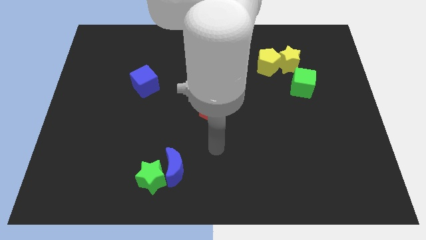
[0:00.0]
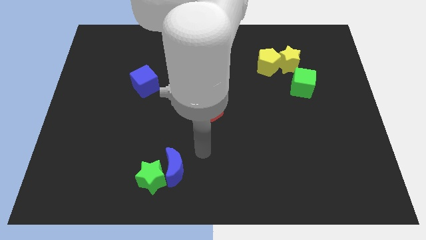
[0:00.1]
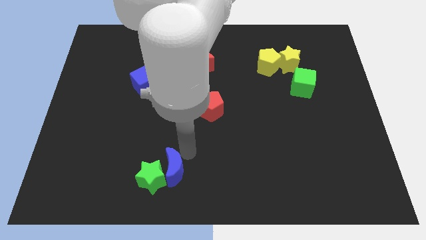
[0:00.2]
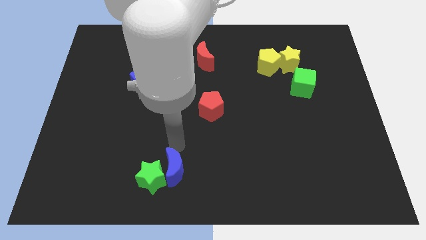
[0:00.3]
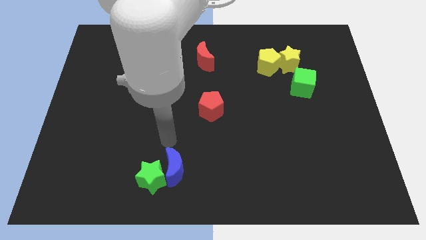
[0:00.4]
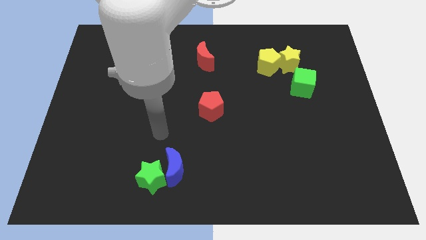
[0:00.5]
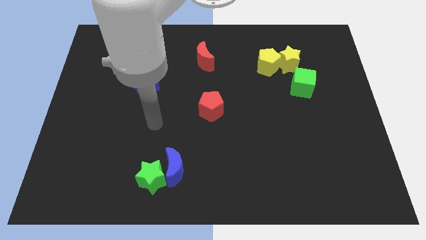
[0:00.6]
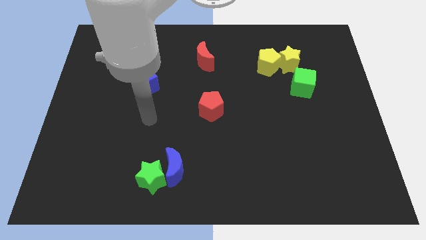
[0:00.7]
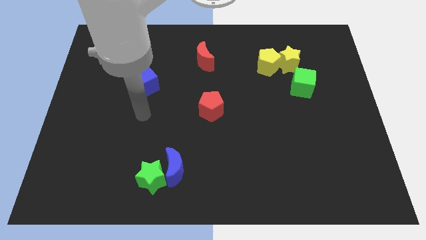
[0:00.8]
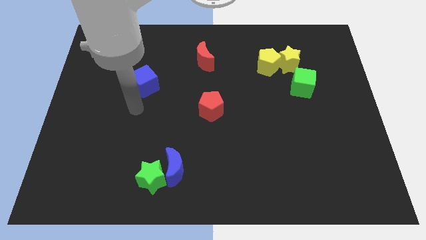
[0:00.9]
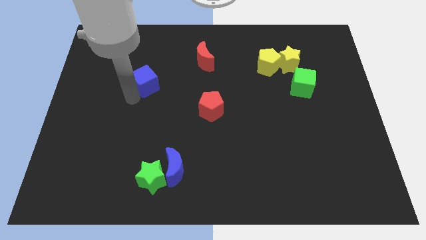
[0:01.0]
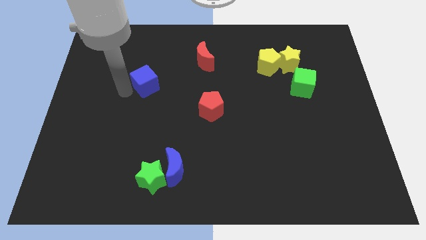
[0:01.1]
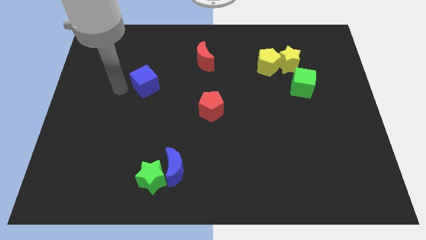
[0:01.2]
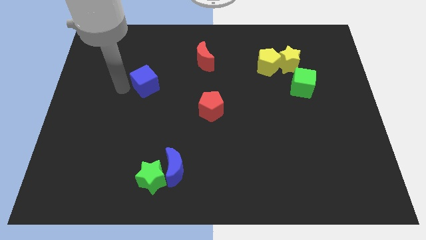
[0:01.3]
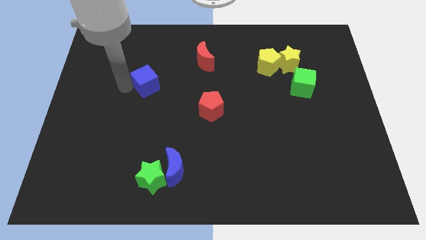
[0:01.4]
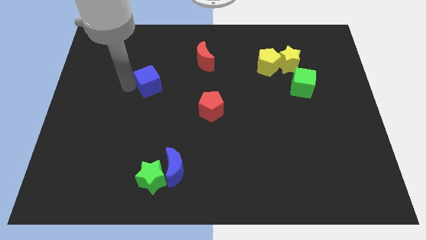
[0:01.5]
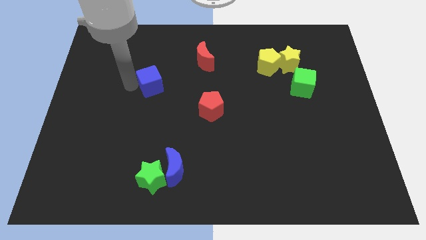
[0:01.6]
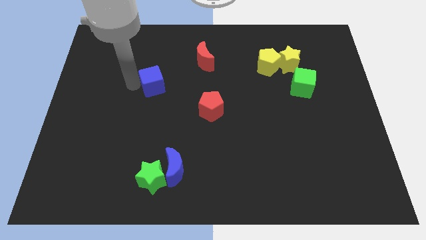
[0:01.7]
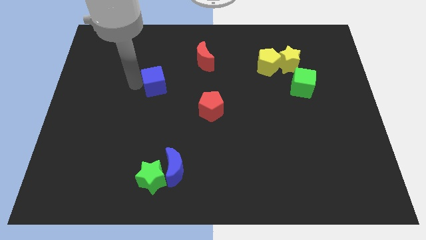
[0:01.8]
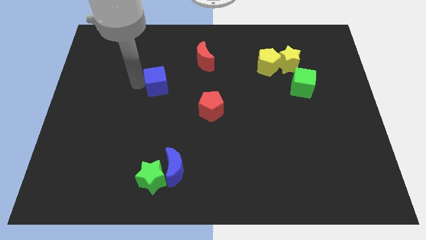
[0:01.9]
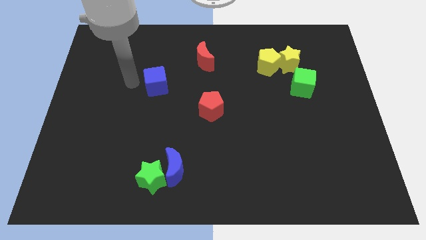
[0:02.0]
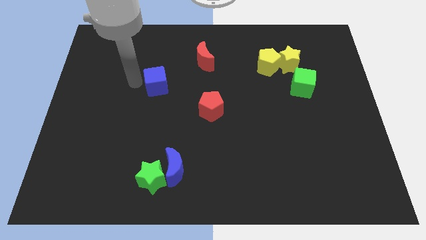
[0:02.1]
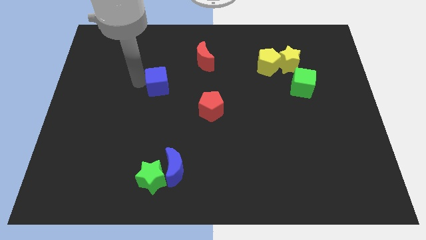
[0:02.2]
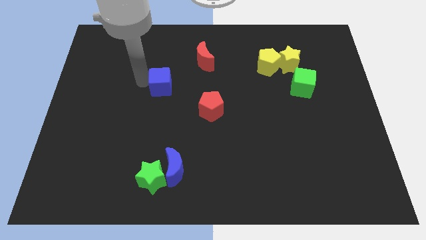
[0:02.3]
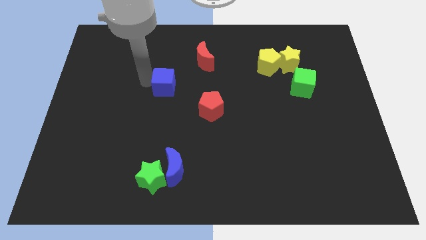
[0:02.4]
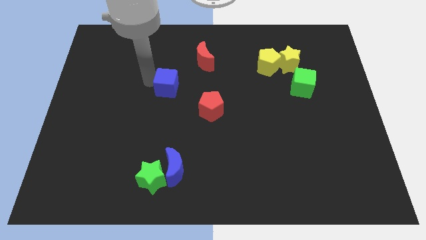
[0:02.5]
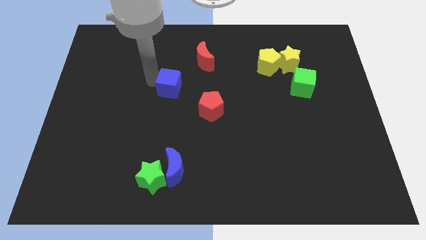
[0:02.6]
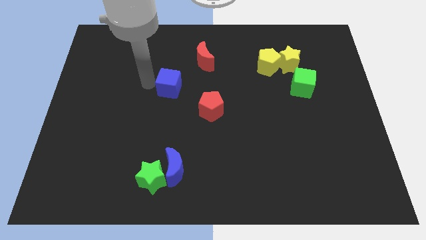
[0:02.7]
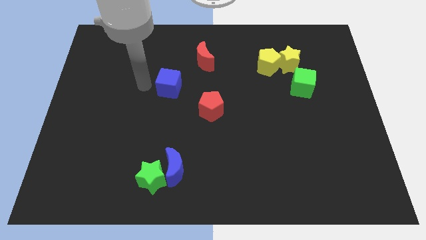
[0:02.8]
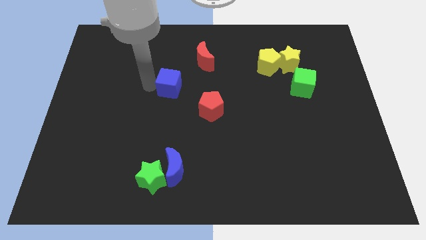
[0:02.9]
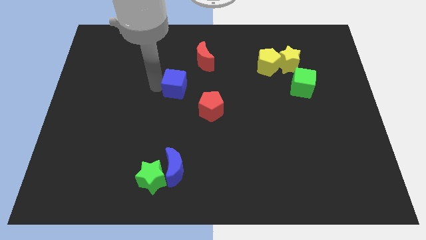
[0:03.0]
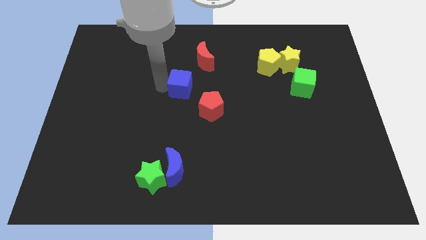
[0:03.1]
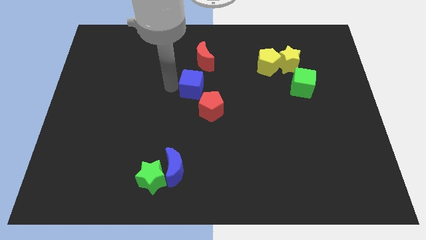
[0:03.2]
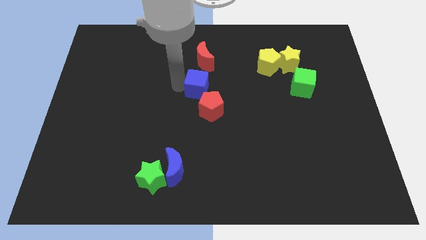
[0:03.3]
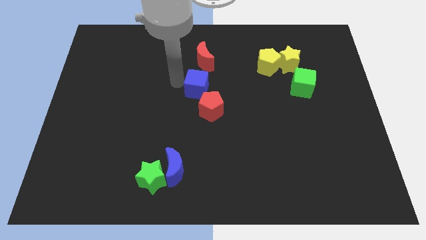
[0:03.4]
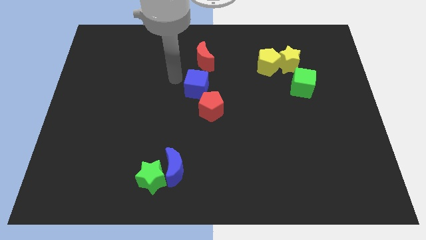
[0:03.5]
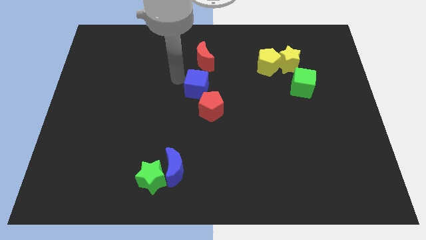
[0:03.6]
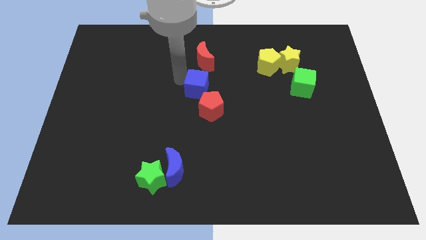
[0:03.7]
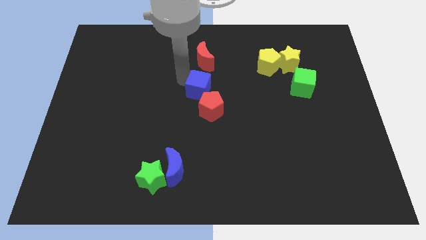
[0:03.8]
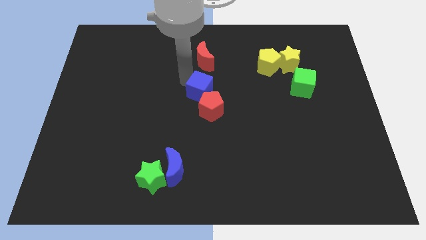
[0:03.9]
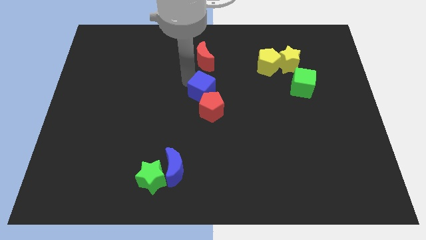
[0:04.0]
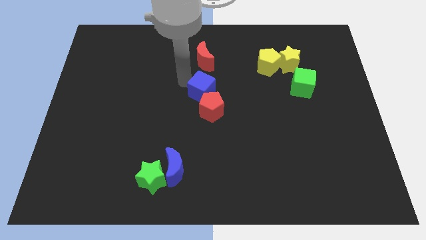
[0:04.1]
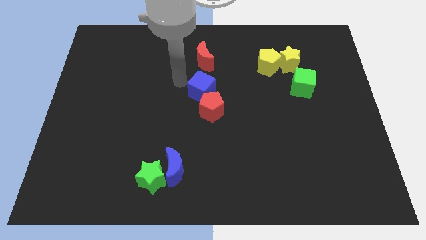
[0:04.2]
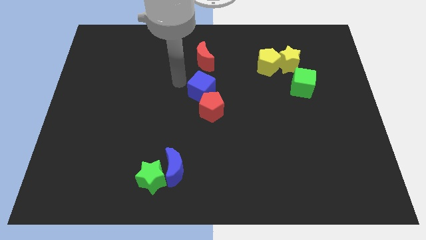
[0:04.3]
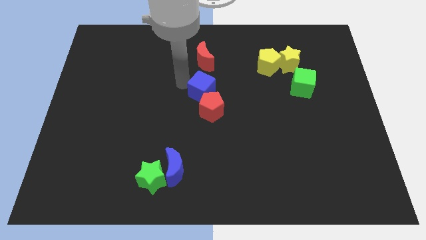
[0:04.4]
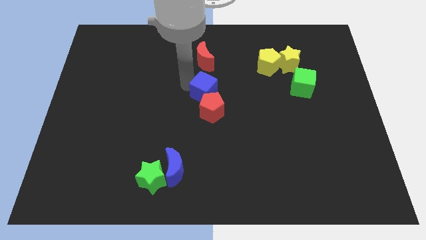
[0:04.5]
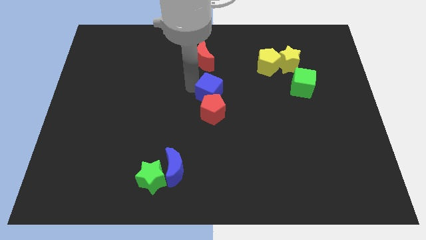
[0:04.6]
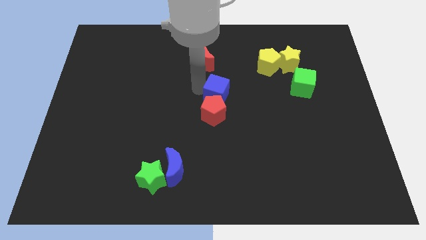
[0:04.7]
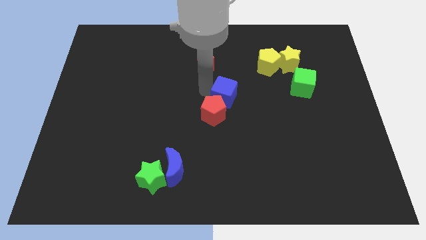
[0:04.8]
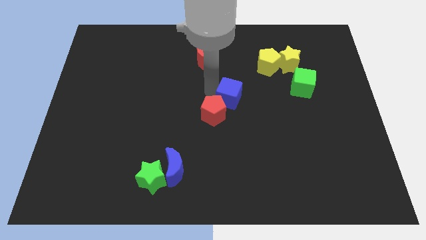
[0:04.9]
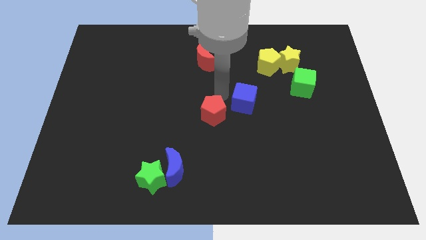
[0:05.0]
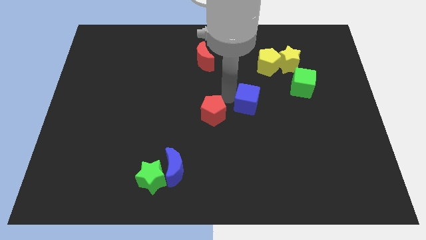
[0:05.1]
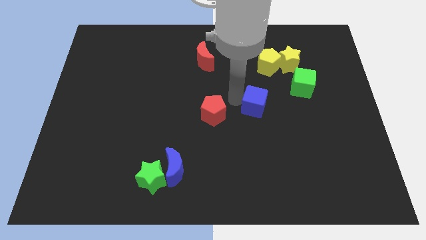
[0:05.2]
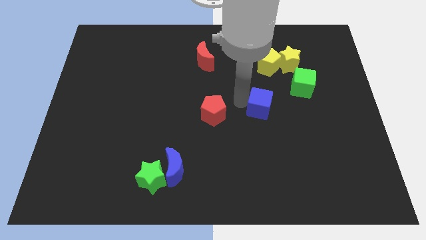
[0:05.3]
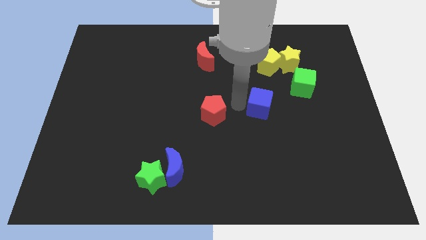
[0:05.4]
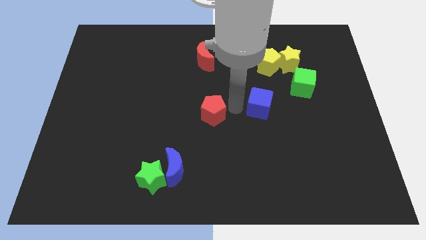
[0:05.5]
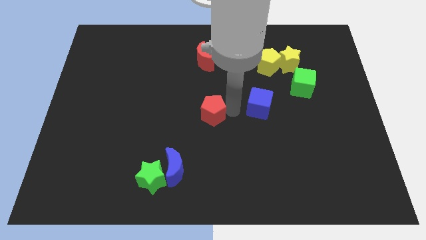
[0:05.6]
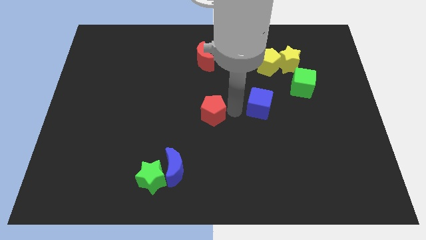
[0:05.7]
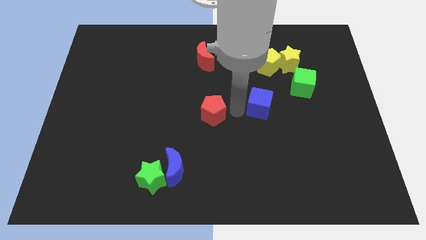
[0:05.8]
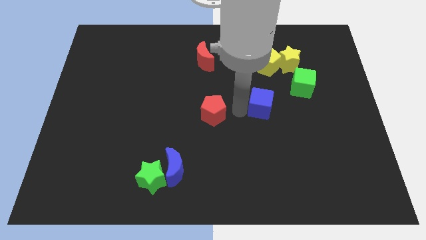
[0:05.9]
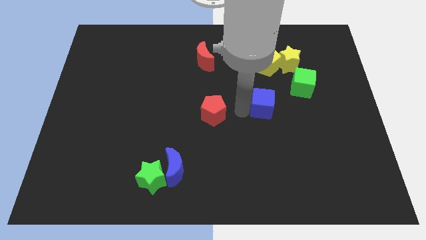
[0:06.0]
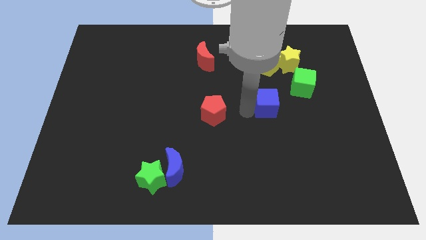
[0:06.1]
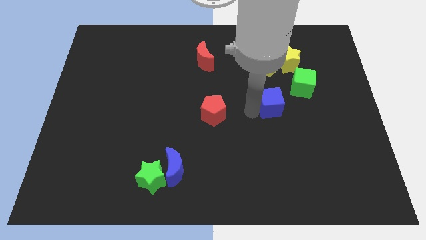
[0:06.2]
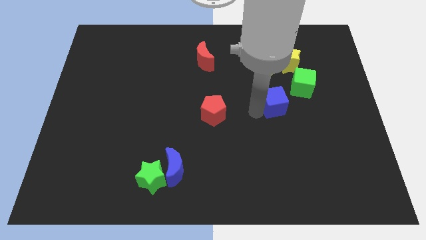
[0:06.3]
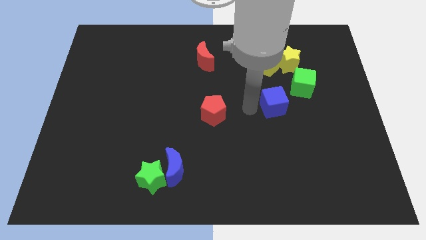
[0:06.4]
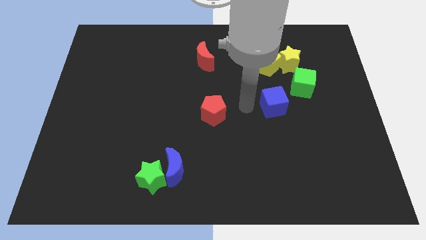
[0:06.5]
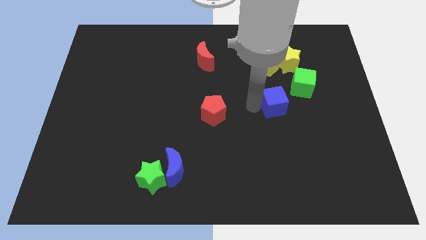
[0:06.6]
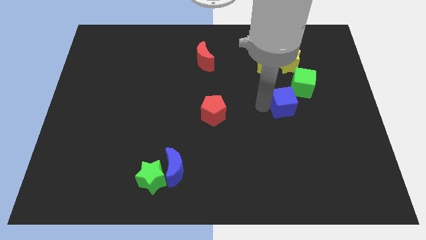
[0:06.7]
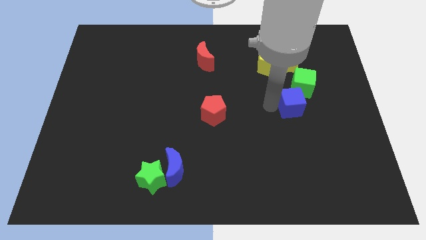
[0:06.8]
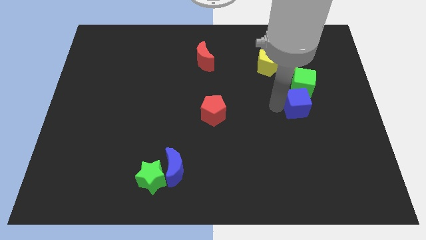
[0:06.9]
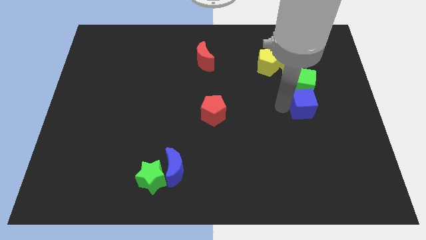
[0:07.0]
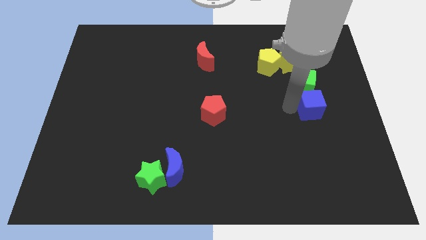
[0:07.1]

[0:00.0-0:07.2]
put the blue cube diagonally down and to the right of the green cube
